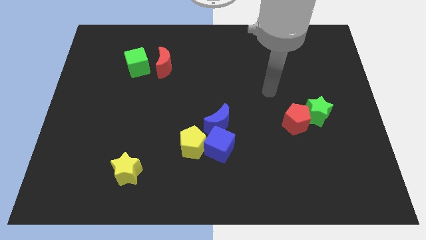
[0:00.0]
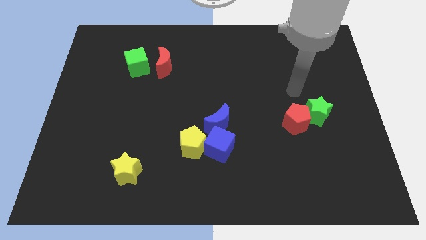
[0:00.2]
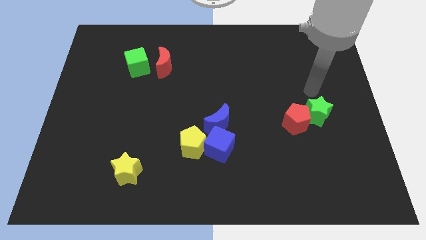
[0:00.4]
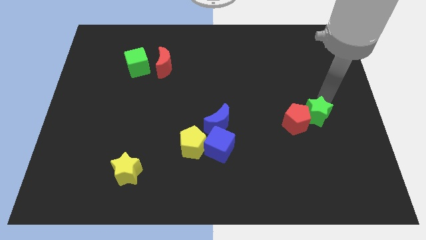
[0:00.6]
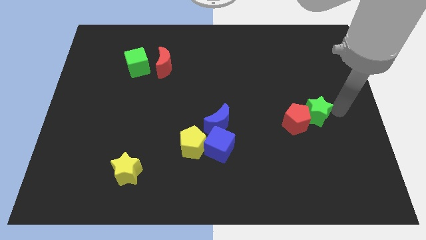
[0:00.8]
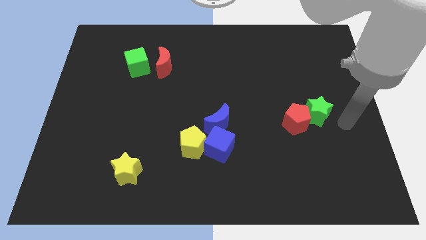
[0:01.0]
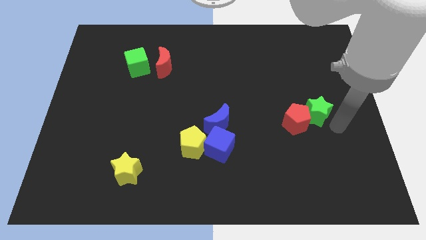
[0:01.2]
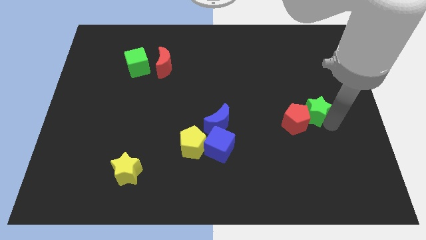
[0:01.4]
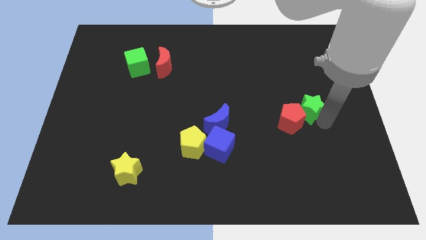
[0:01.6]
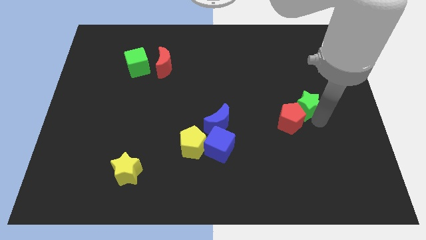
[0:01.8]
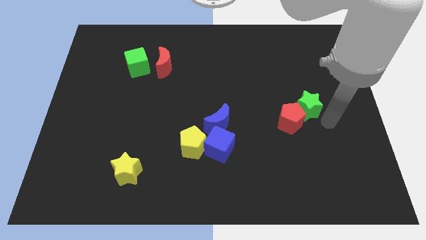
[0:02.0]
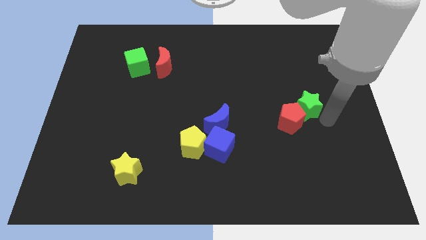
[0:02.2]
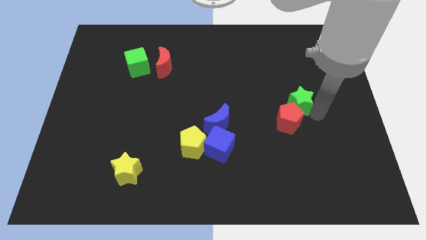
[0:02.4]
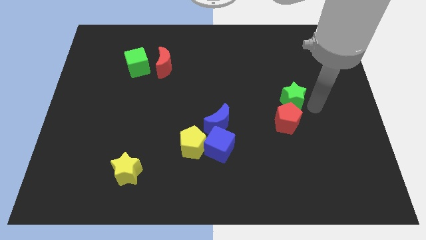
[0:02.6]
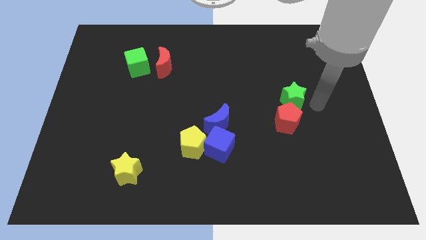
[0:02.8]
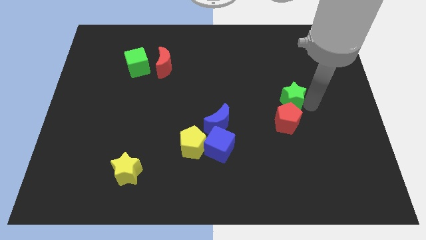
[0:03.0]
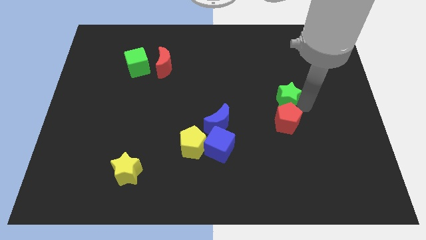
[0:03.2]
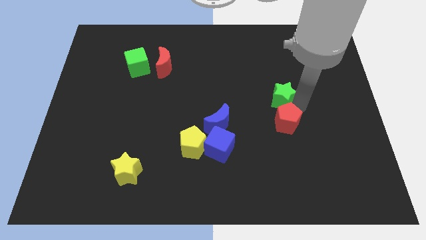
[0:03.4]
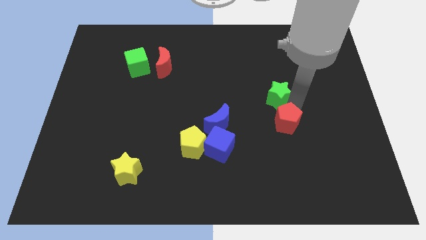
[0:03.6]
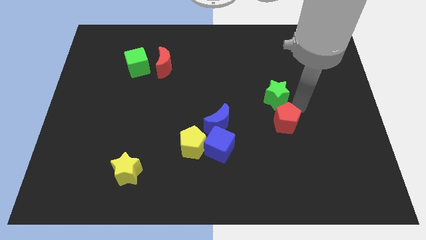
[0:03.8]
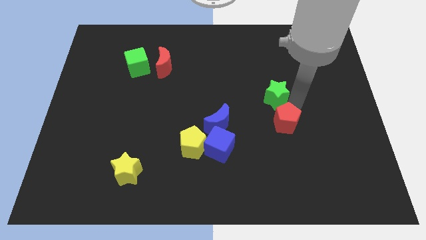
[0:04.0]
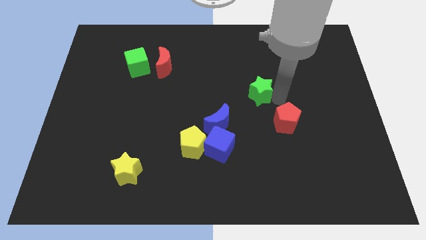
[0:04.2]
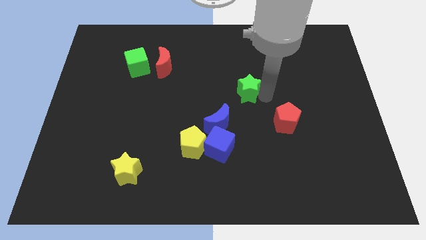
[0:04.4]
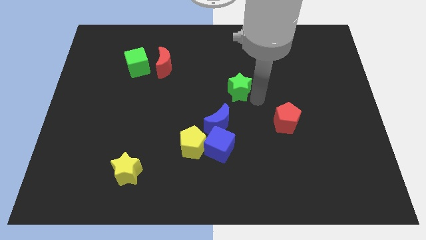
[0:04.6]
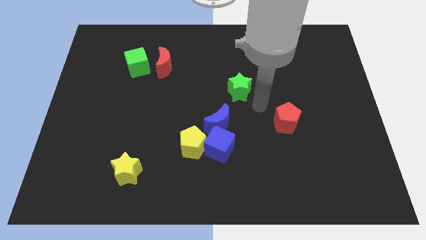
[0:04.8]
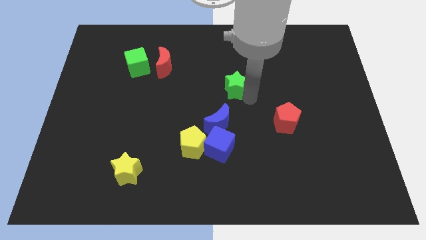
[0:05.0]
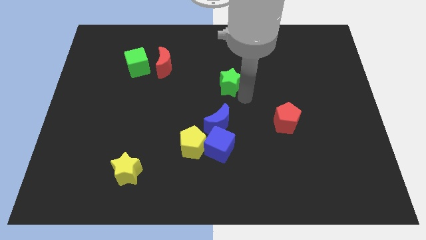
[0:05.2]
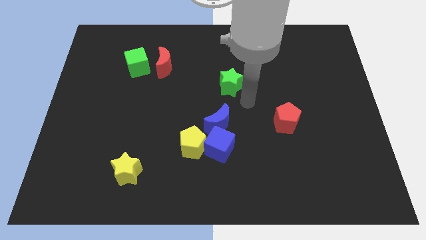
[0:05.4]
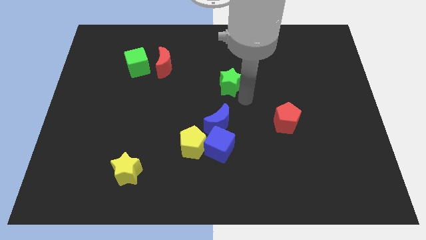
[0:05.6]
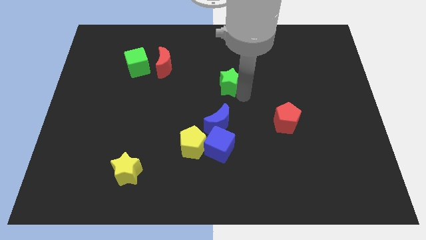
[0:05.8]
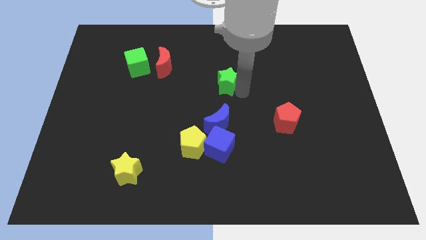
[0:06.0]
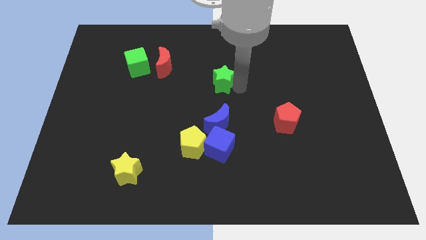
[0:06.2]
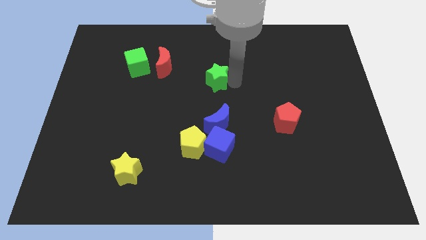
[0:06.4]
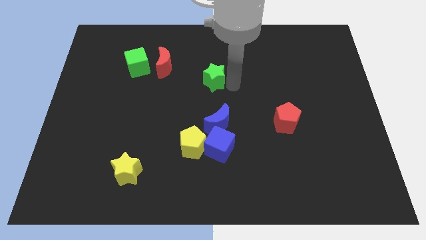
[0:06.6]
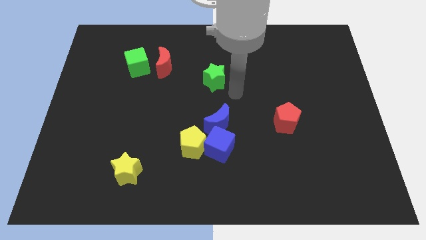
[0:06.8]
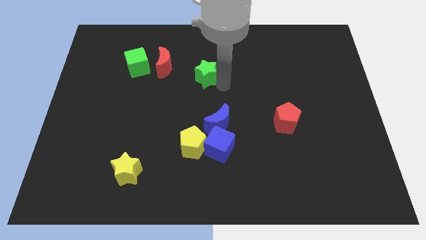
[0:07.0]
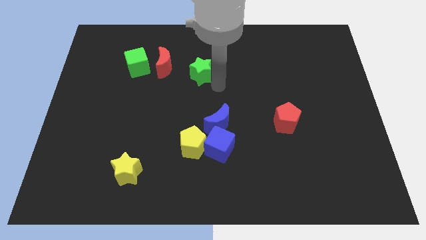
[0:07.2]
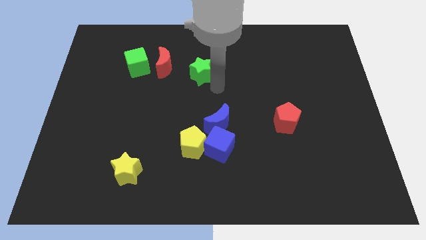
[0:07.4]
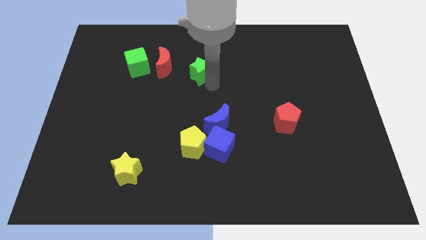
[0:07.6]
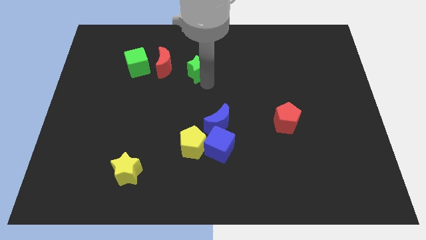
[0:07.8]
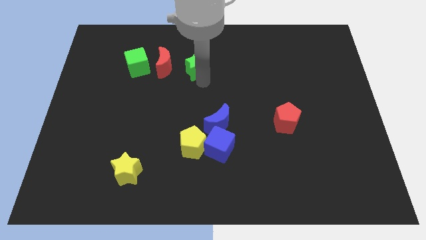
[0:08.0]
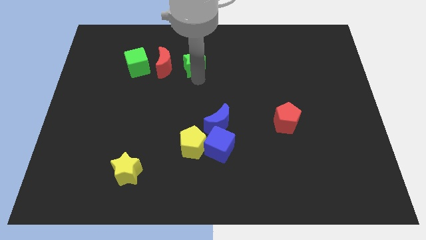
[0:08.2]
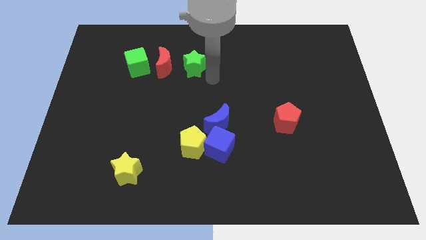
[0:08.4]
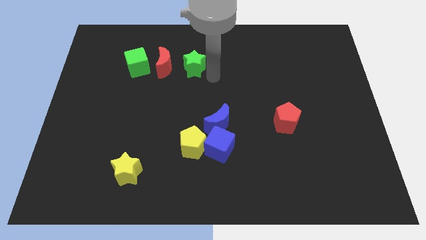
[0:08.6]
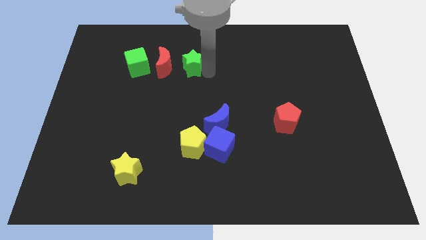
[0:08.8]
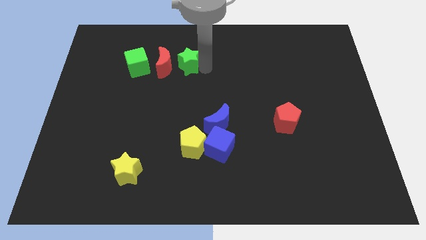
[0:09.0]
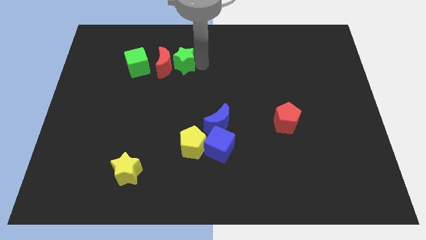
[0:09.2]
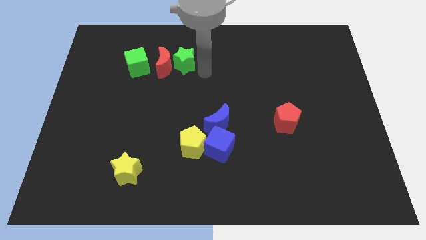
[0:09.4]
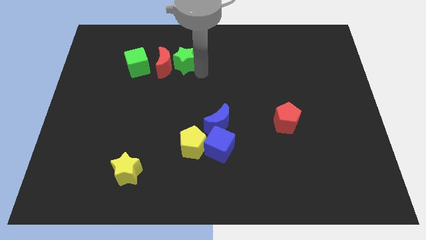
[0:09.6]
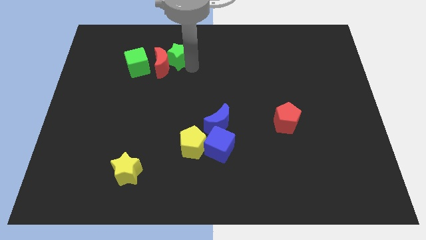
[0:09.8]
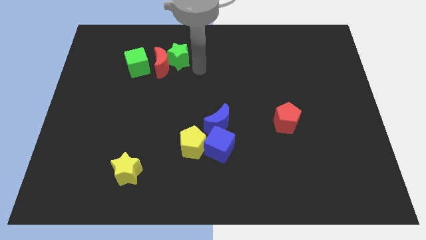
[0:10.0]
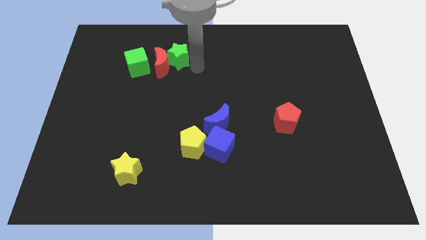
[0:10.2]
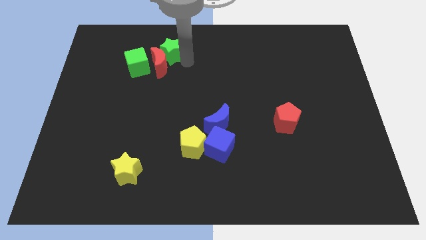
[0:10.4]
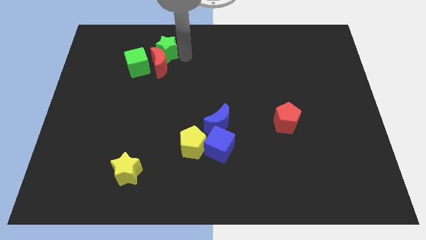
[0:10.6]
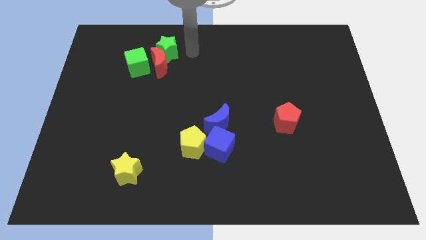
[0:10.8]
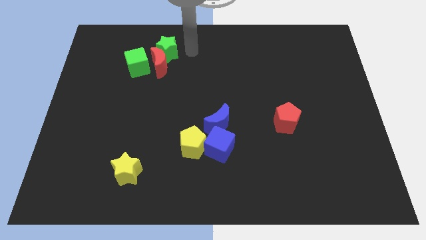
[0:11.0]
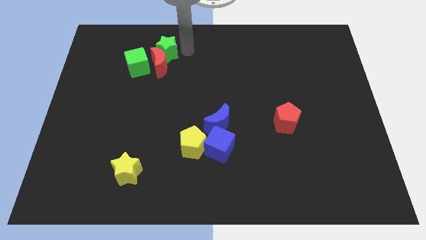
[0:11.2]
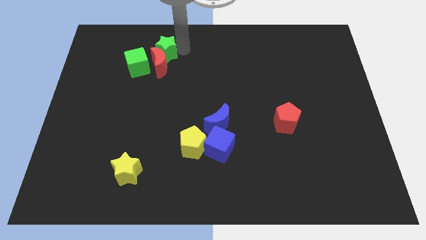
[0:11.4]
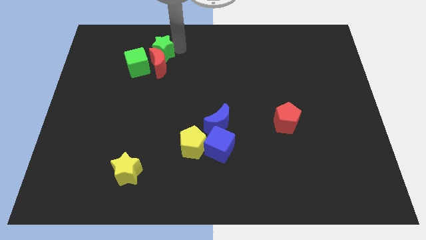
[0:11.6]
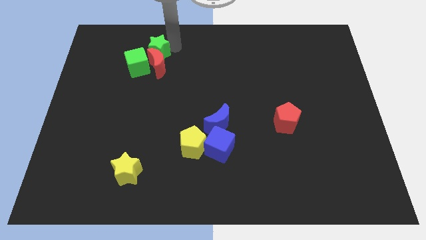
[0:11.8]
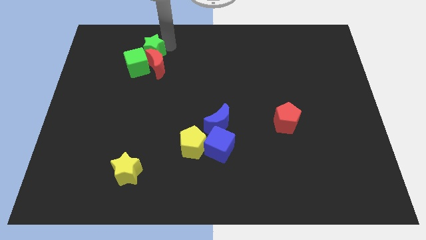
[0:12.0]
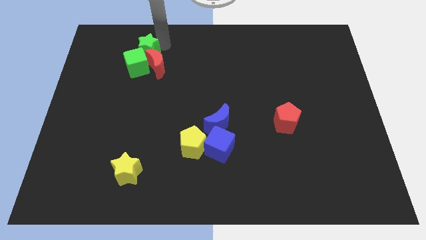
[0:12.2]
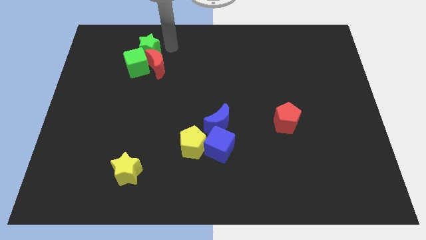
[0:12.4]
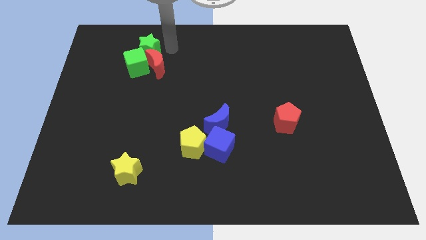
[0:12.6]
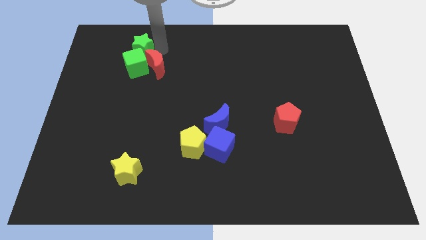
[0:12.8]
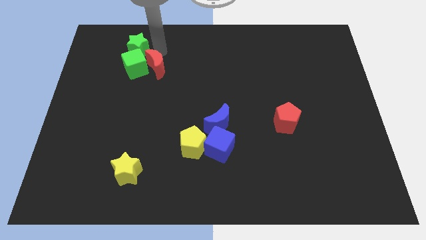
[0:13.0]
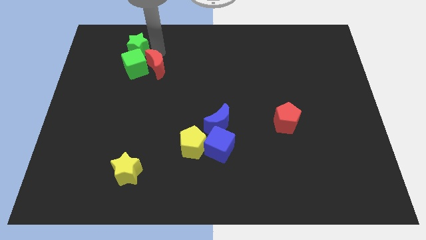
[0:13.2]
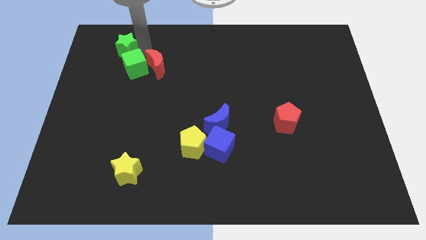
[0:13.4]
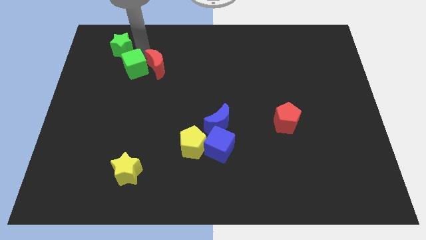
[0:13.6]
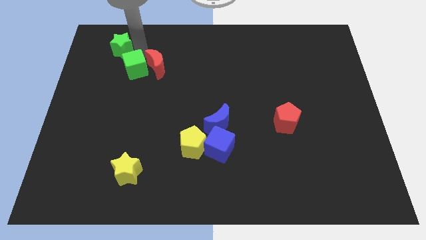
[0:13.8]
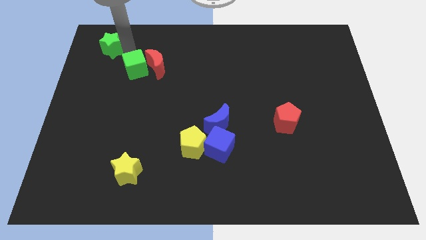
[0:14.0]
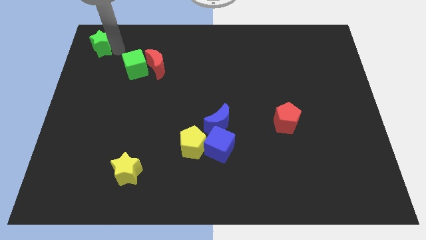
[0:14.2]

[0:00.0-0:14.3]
push the green star to the top left of the board
